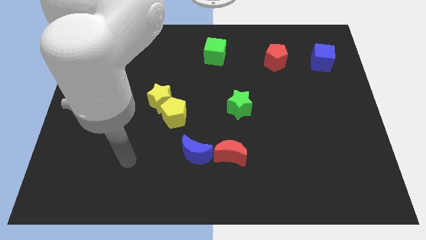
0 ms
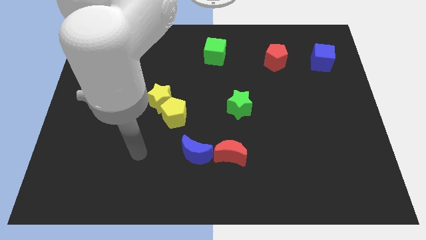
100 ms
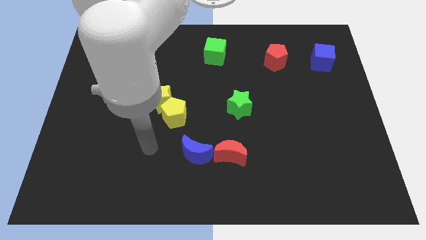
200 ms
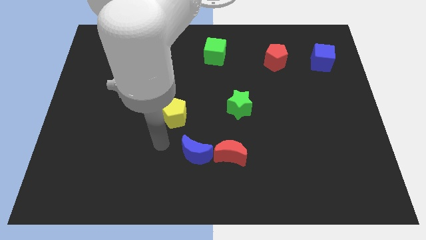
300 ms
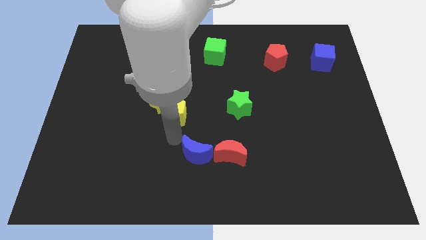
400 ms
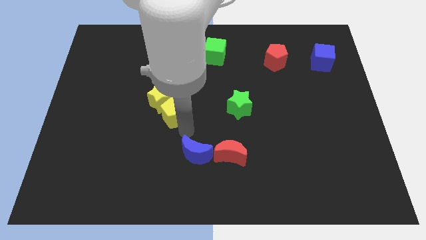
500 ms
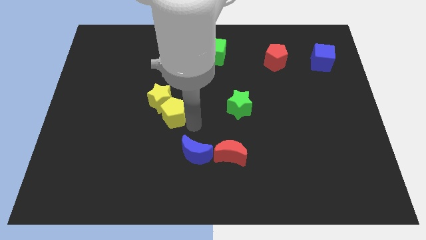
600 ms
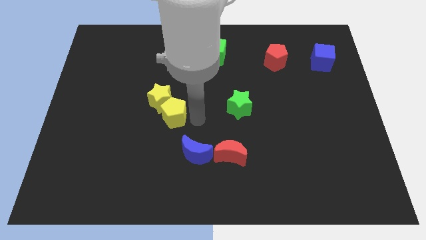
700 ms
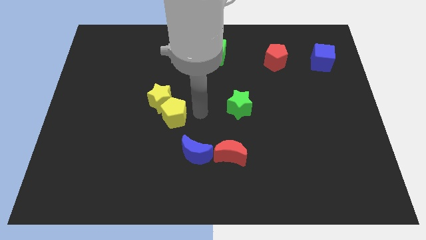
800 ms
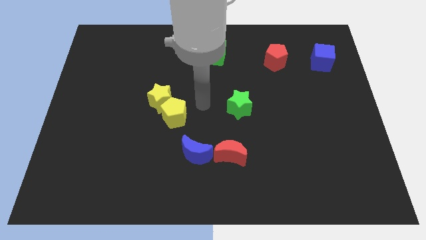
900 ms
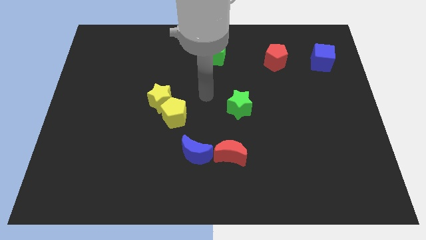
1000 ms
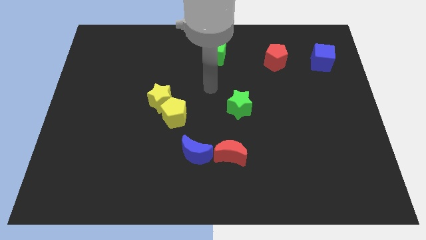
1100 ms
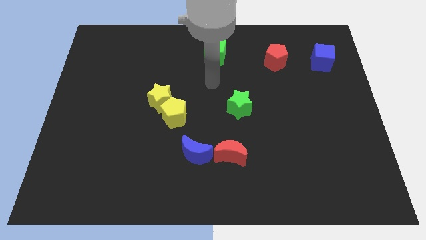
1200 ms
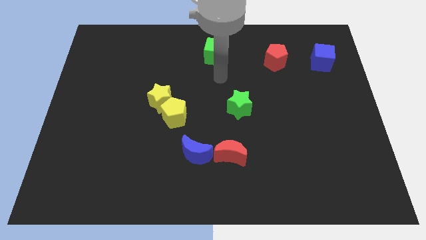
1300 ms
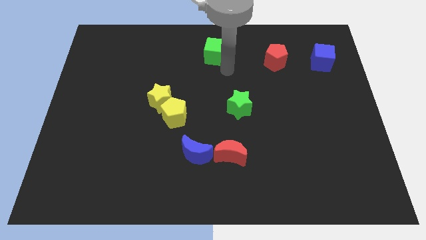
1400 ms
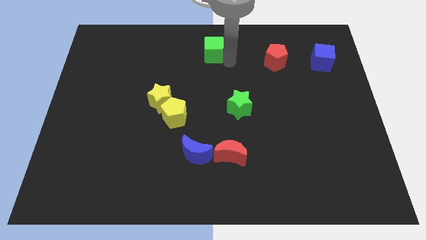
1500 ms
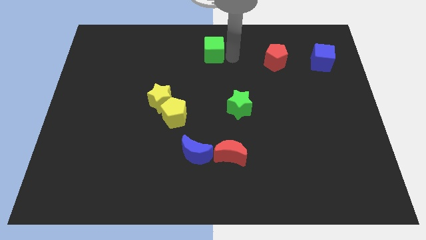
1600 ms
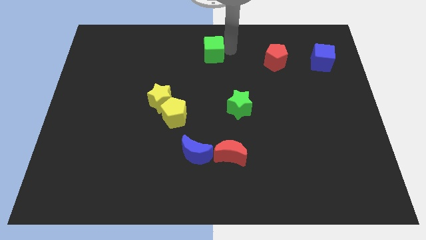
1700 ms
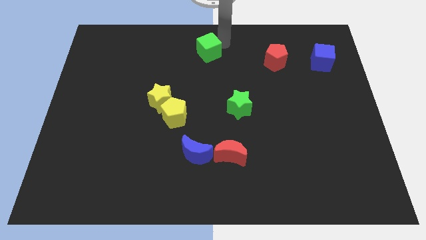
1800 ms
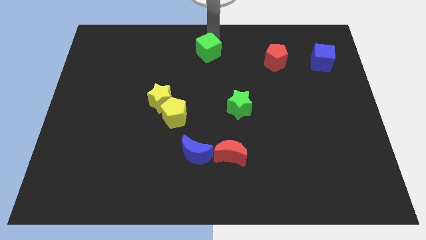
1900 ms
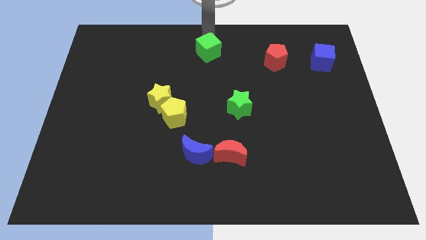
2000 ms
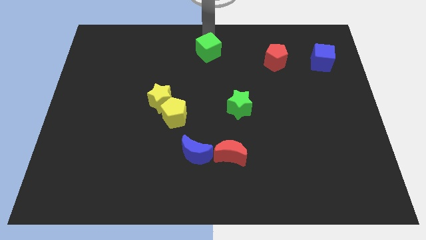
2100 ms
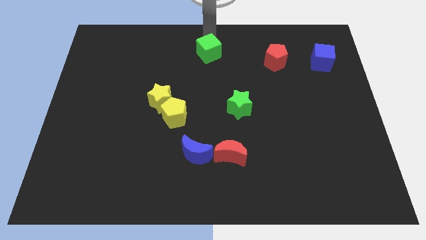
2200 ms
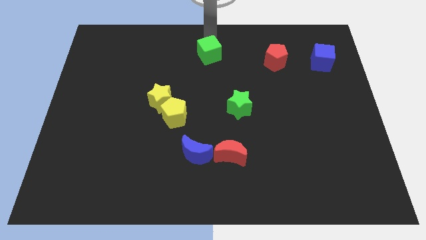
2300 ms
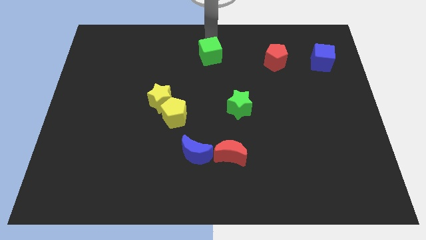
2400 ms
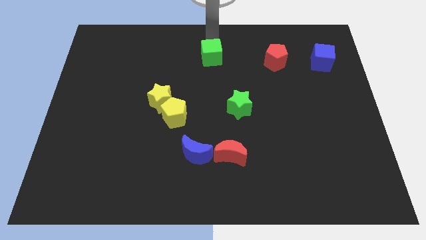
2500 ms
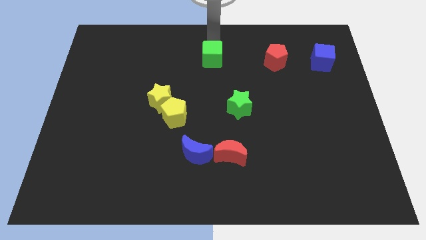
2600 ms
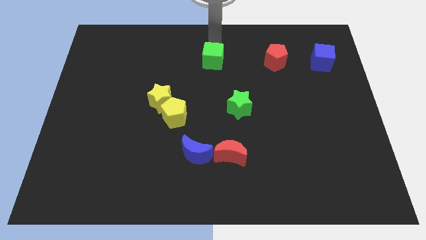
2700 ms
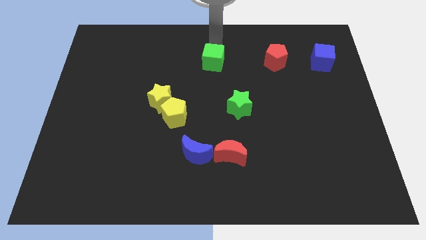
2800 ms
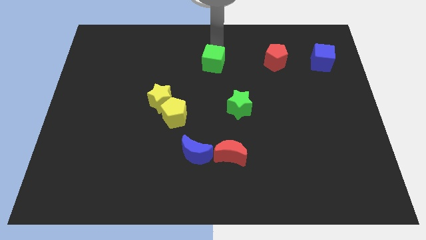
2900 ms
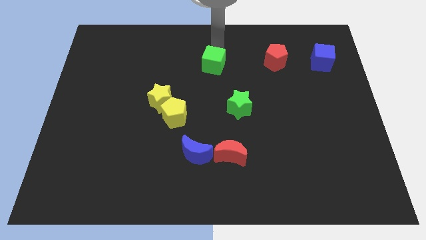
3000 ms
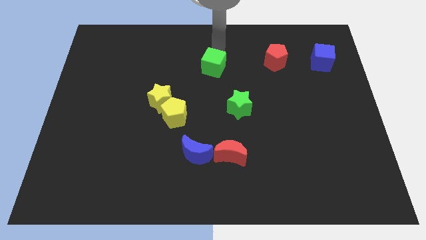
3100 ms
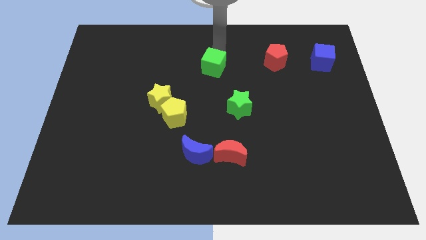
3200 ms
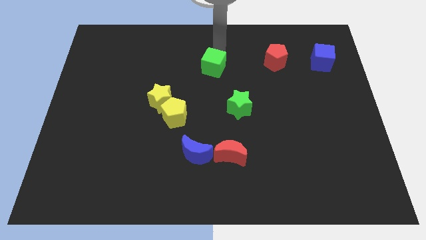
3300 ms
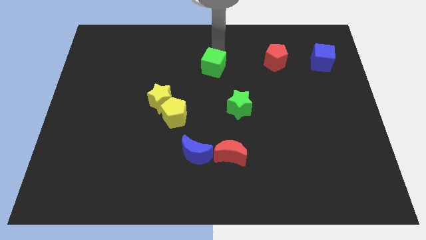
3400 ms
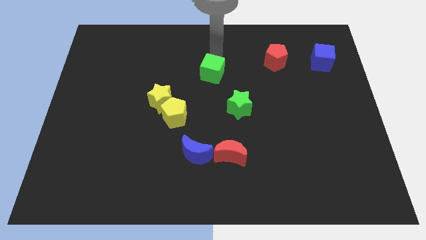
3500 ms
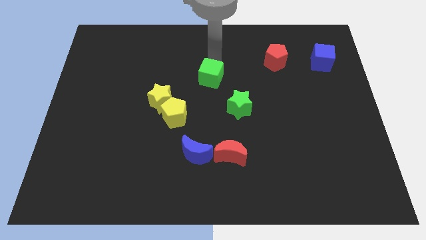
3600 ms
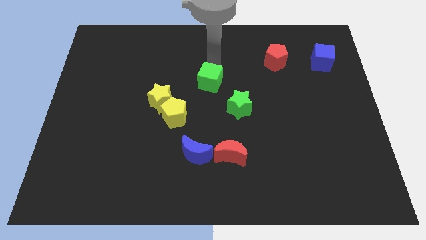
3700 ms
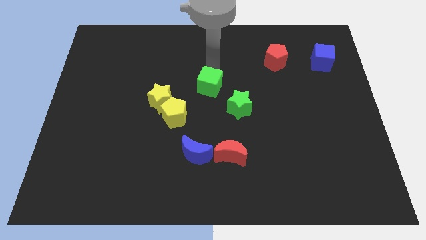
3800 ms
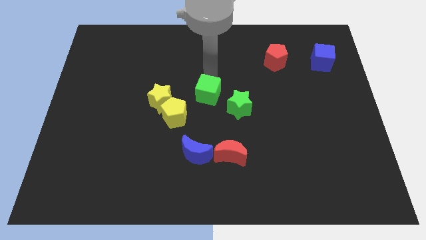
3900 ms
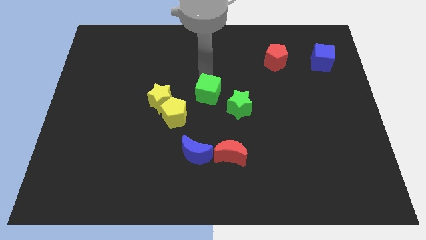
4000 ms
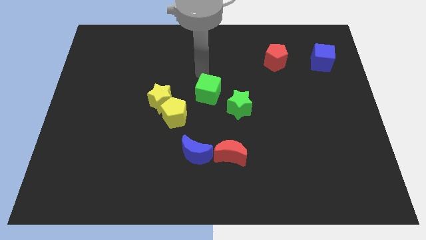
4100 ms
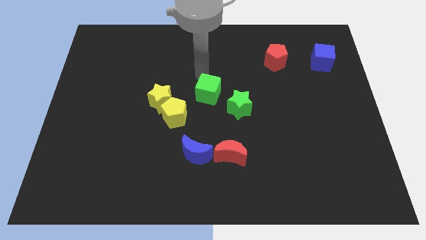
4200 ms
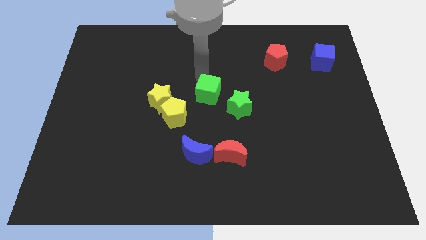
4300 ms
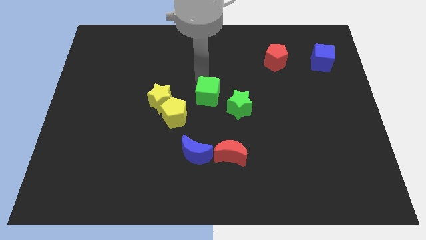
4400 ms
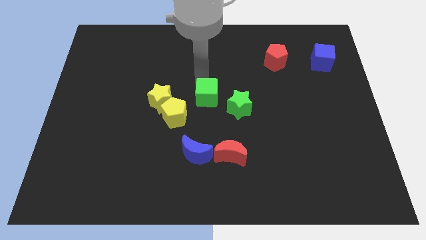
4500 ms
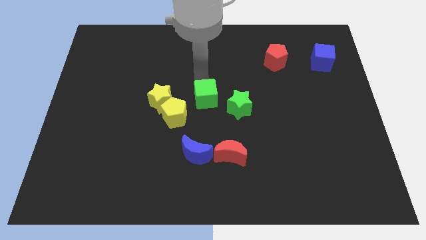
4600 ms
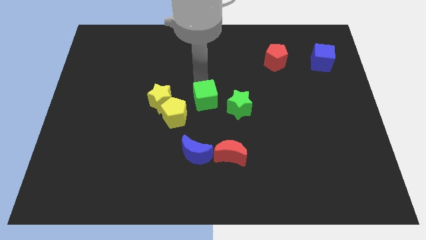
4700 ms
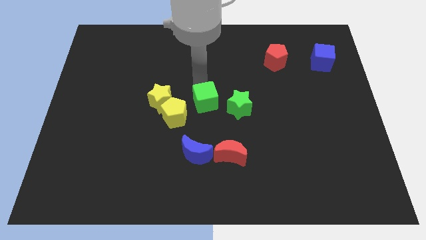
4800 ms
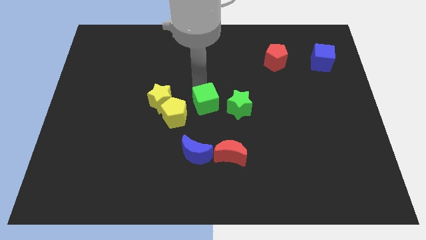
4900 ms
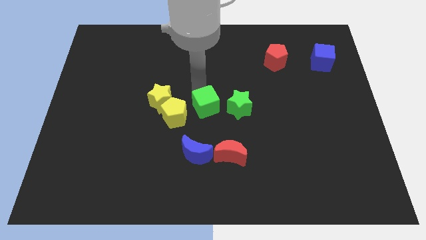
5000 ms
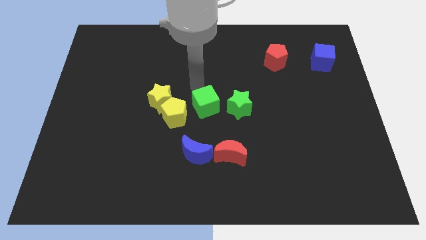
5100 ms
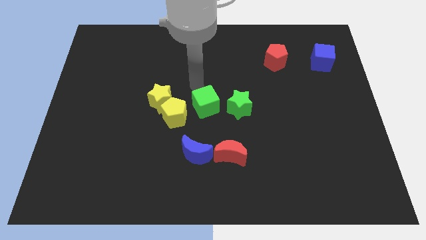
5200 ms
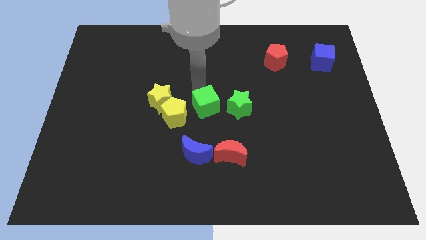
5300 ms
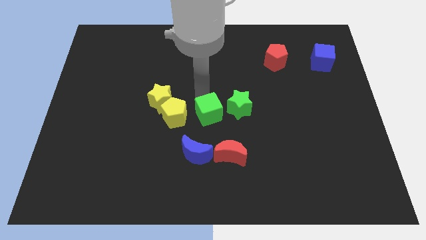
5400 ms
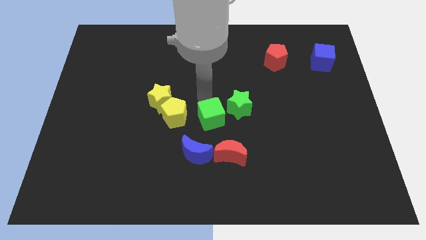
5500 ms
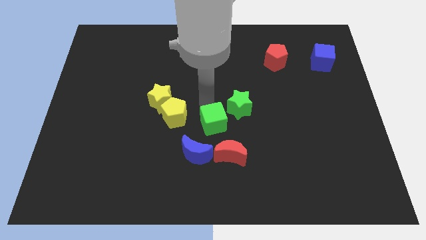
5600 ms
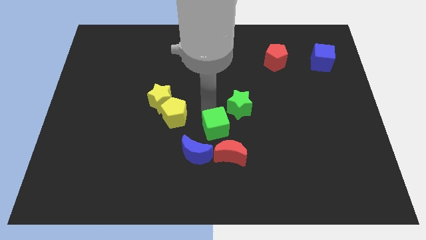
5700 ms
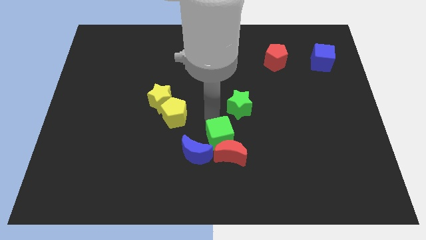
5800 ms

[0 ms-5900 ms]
put the green cube to the red moon

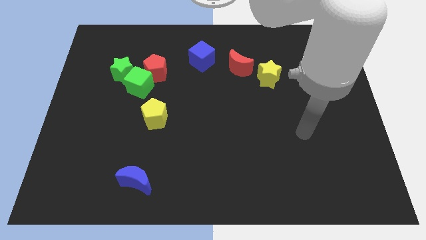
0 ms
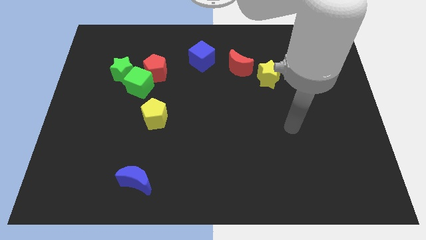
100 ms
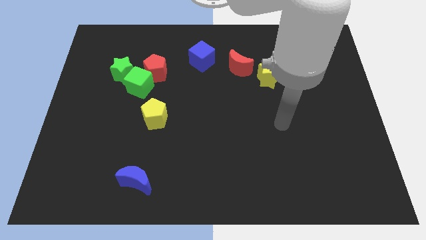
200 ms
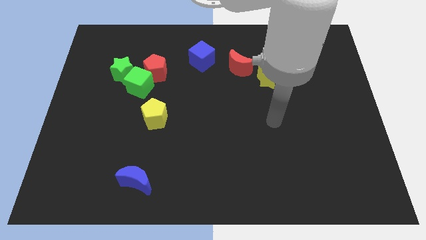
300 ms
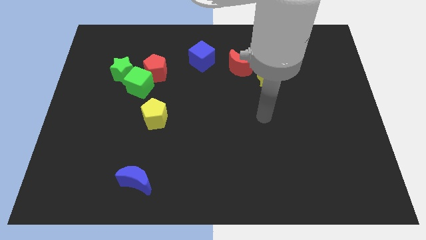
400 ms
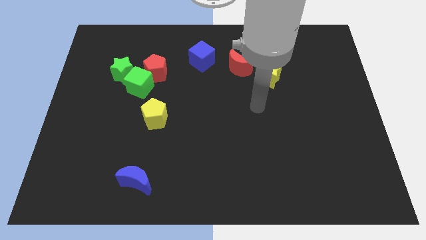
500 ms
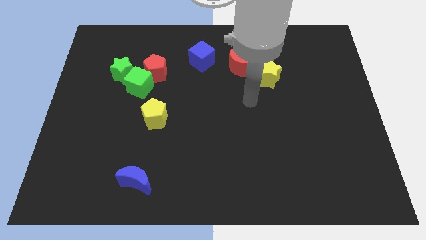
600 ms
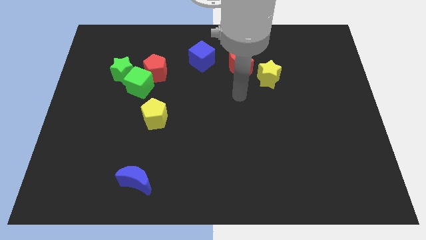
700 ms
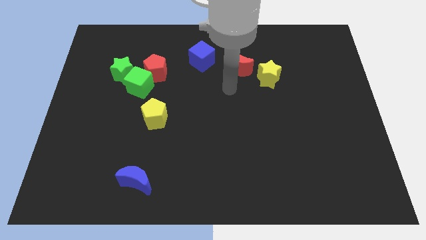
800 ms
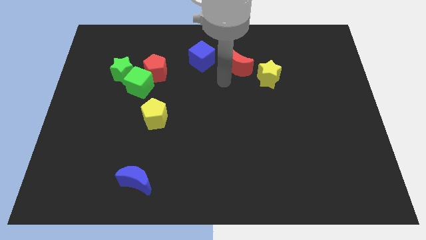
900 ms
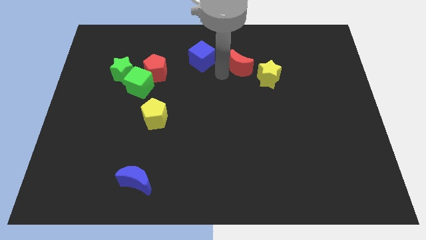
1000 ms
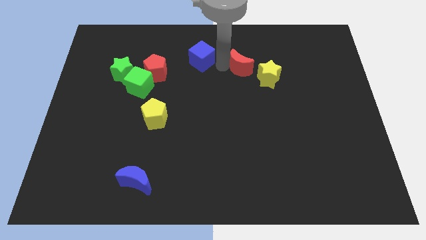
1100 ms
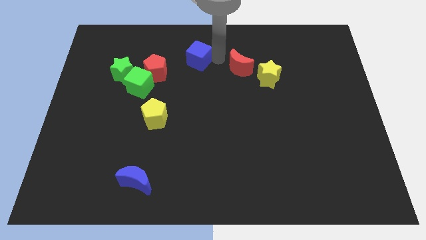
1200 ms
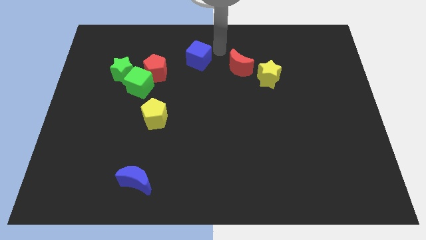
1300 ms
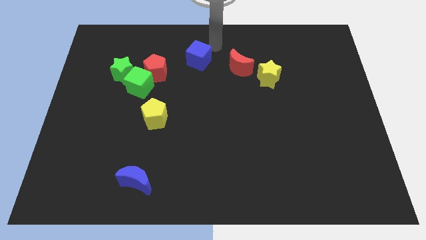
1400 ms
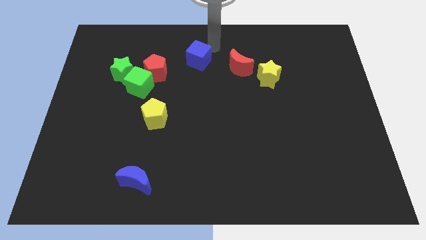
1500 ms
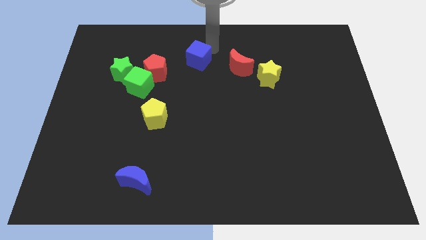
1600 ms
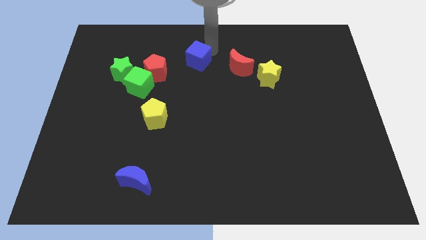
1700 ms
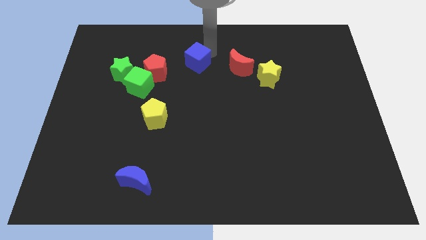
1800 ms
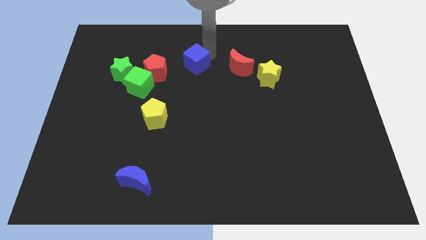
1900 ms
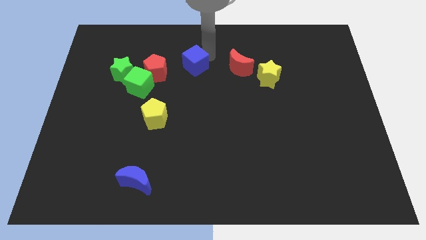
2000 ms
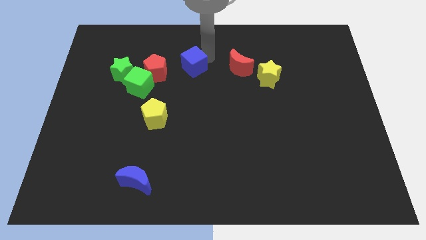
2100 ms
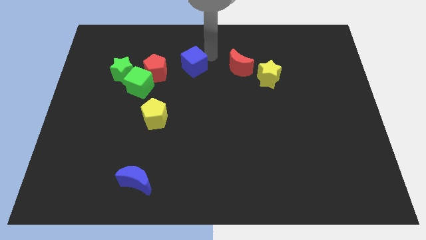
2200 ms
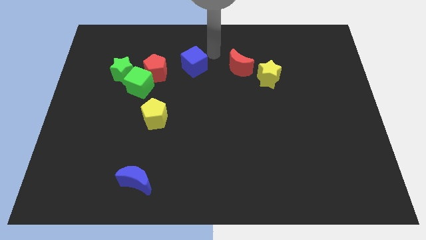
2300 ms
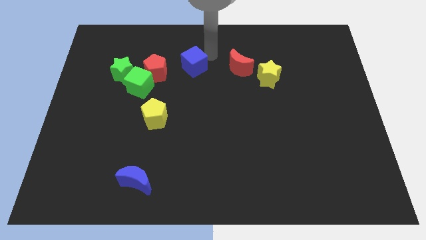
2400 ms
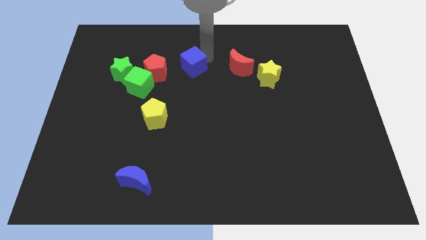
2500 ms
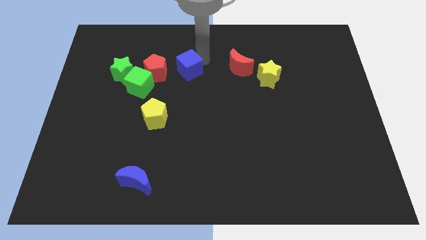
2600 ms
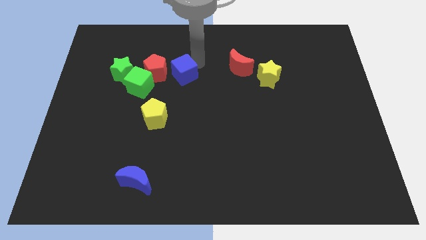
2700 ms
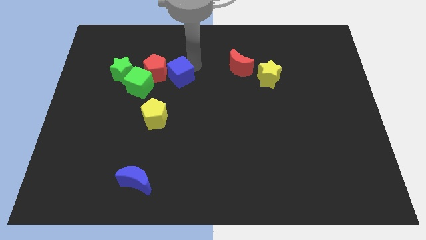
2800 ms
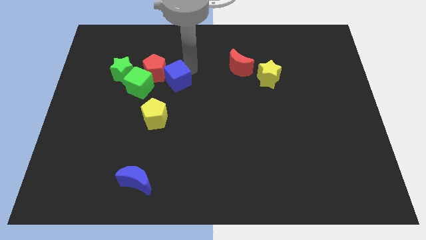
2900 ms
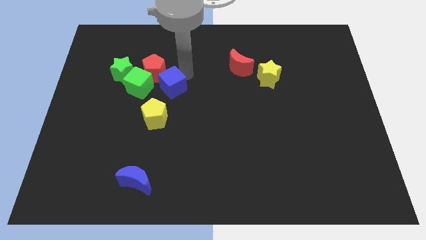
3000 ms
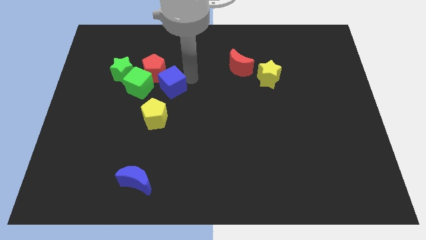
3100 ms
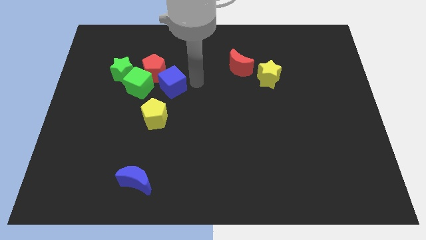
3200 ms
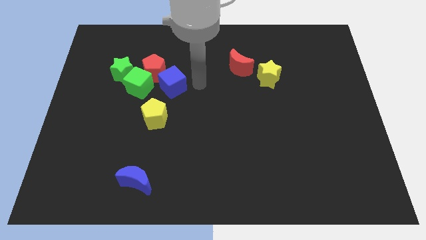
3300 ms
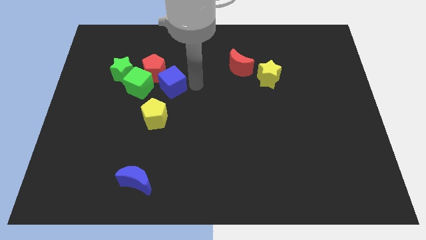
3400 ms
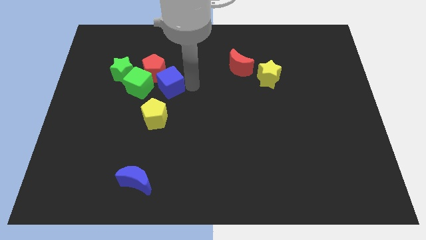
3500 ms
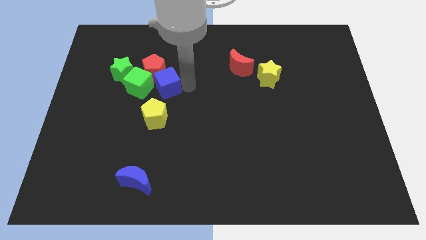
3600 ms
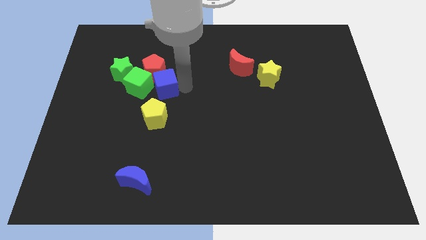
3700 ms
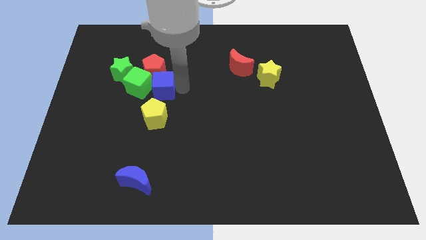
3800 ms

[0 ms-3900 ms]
move the blue cube towards the green cube
